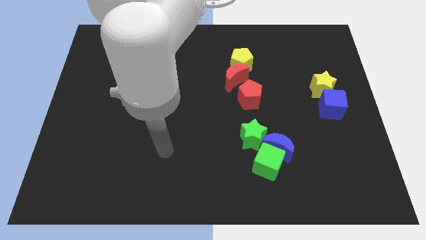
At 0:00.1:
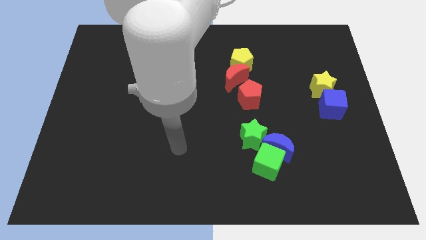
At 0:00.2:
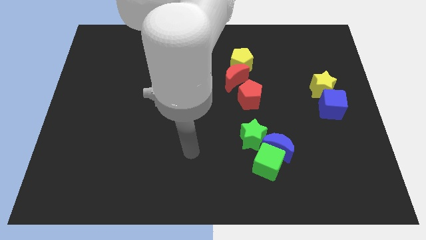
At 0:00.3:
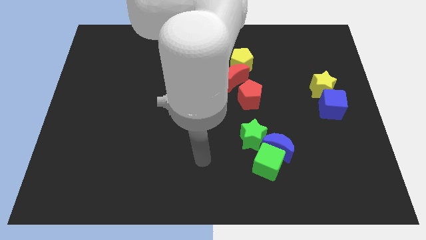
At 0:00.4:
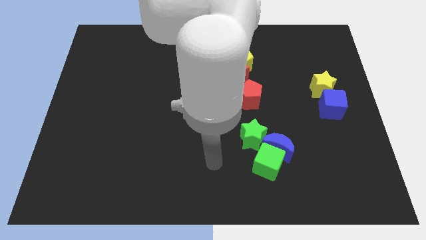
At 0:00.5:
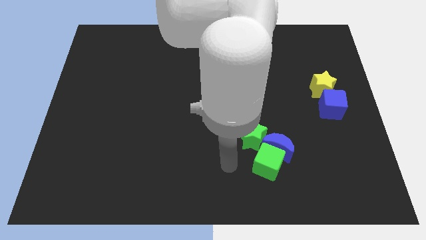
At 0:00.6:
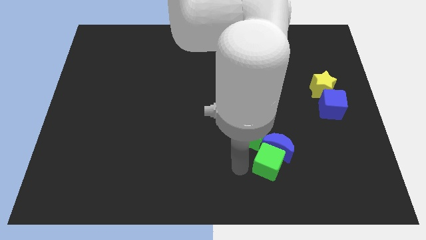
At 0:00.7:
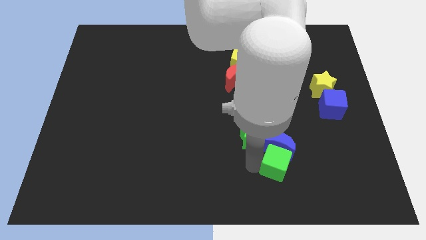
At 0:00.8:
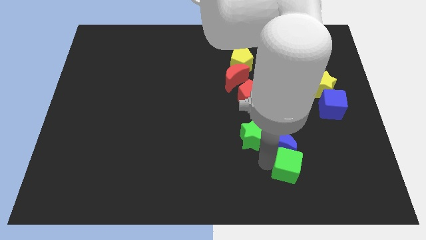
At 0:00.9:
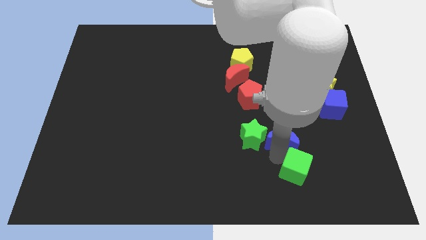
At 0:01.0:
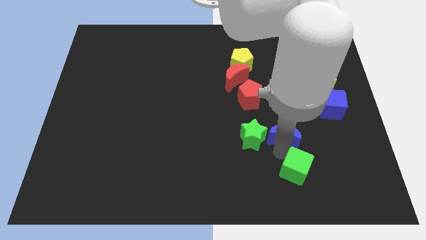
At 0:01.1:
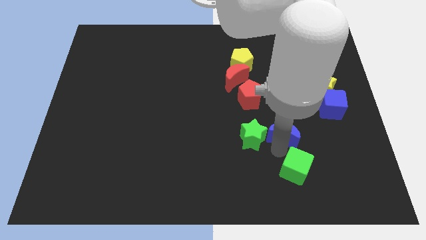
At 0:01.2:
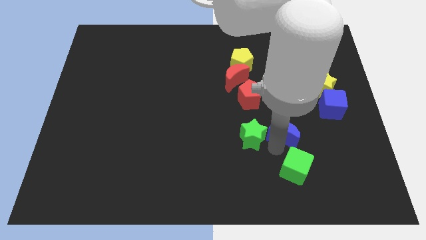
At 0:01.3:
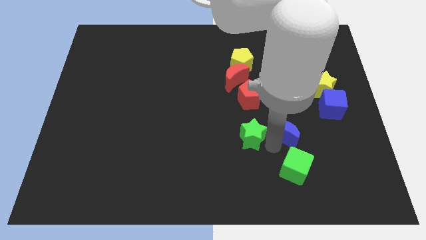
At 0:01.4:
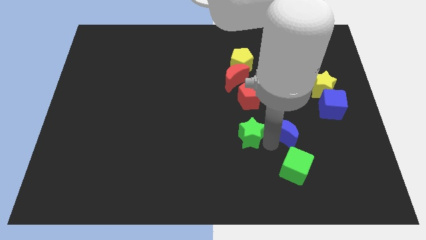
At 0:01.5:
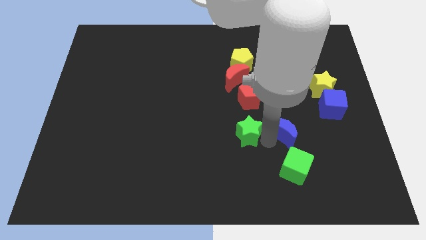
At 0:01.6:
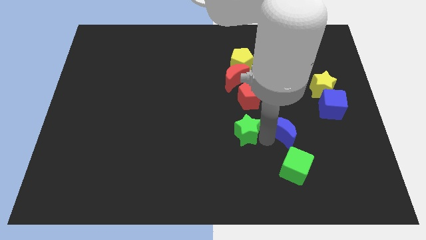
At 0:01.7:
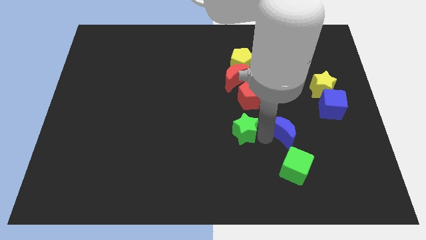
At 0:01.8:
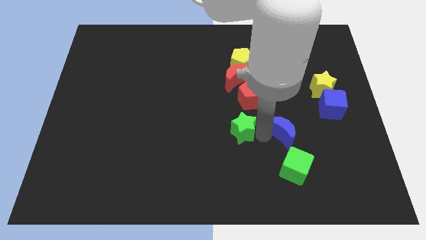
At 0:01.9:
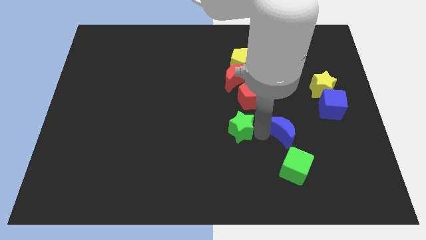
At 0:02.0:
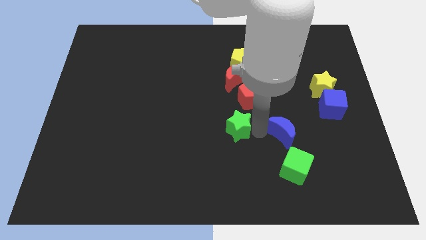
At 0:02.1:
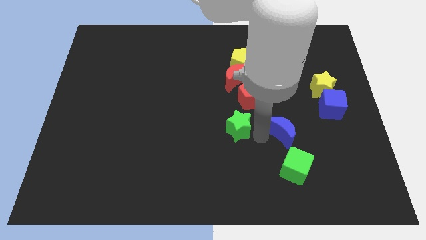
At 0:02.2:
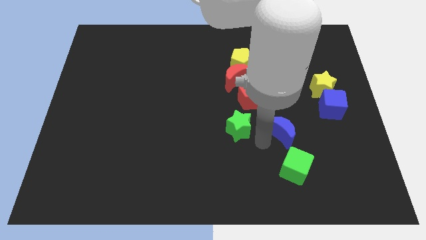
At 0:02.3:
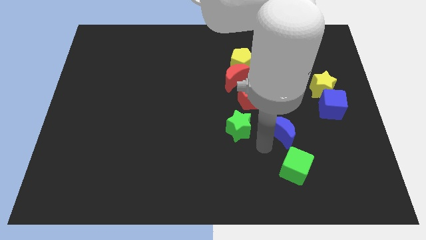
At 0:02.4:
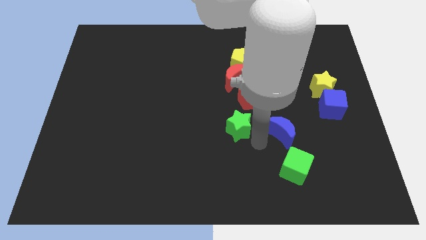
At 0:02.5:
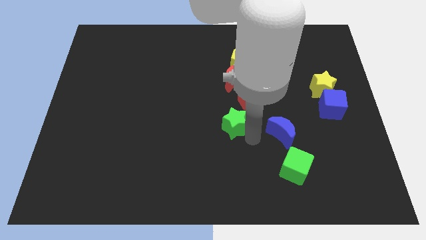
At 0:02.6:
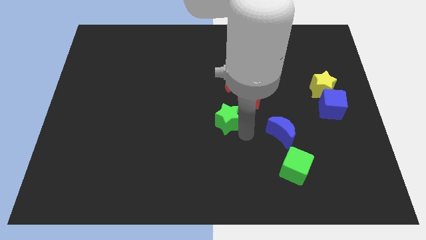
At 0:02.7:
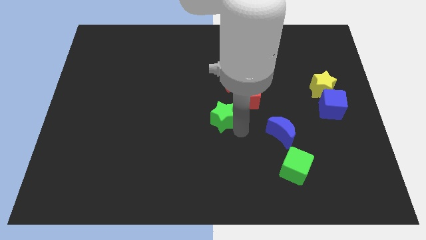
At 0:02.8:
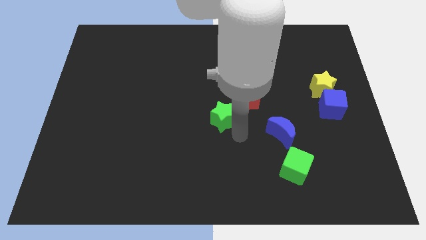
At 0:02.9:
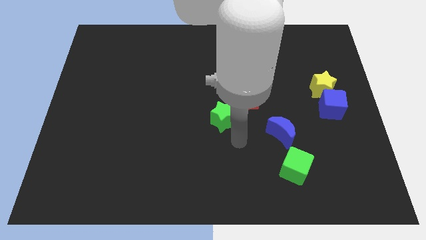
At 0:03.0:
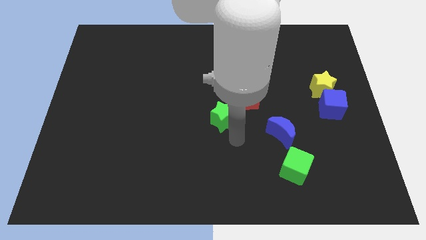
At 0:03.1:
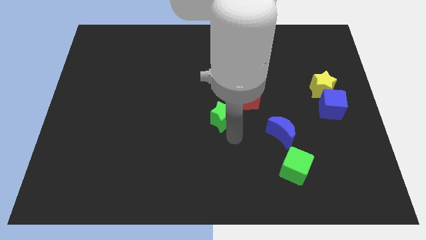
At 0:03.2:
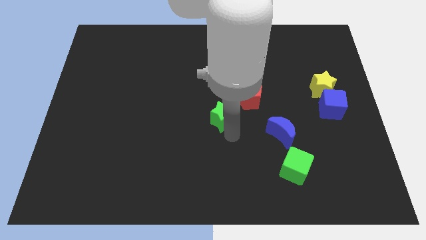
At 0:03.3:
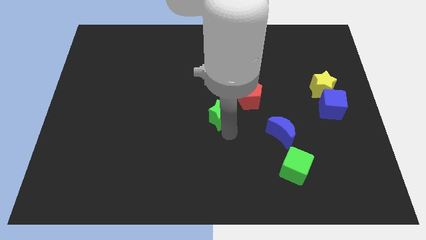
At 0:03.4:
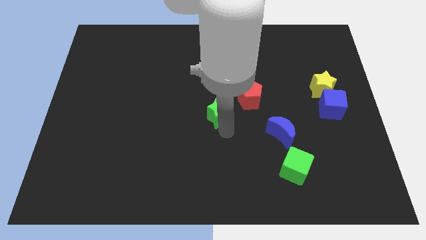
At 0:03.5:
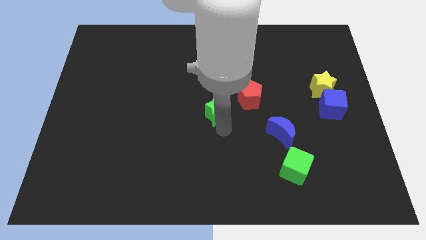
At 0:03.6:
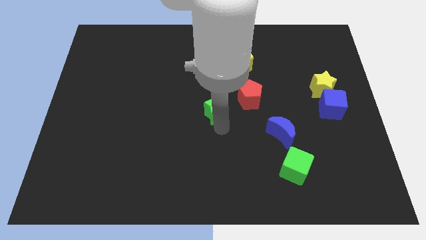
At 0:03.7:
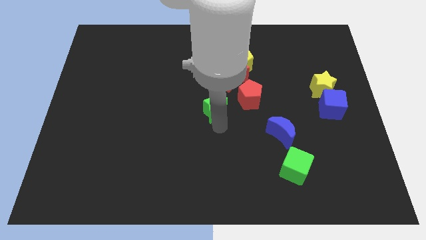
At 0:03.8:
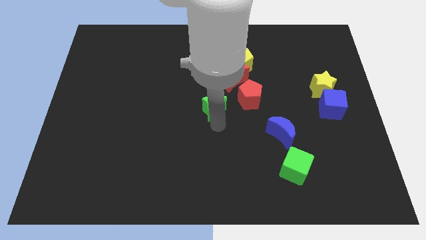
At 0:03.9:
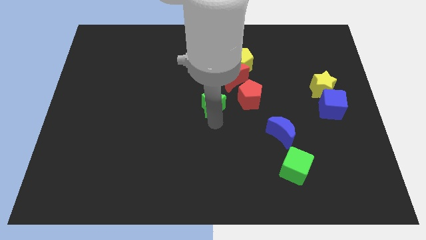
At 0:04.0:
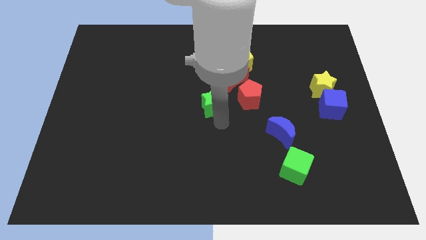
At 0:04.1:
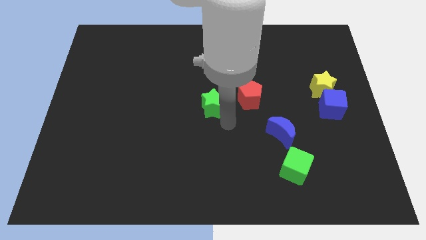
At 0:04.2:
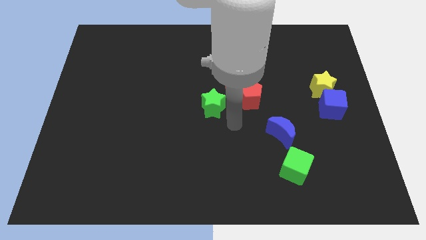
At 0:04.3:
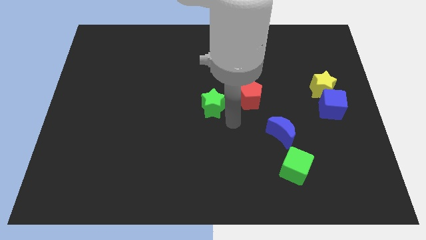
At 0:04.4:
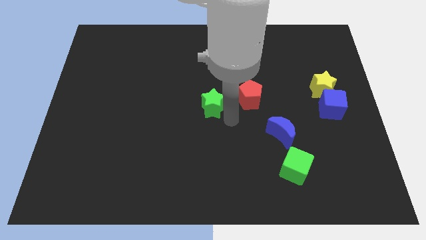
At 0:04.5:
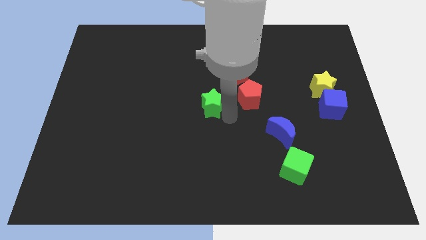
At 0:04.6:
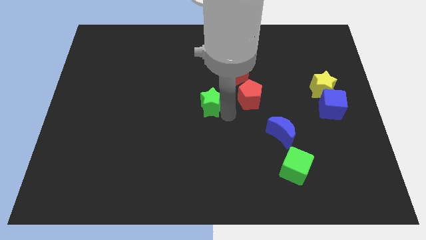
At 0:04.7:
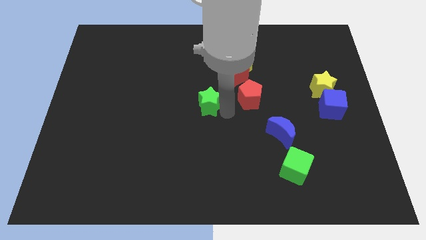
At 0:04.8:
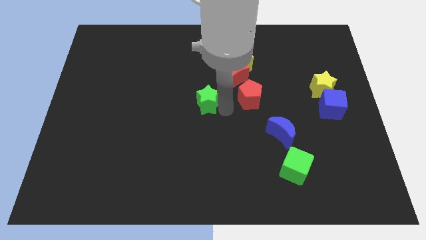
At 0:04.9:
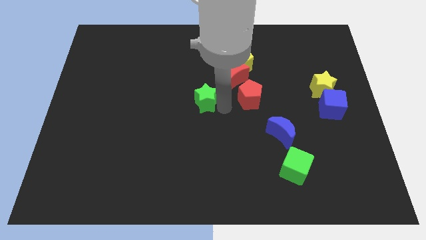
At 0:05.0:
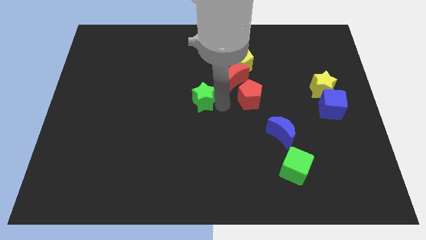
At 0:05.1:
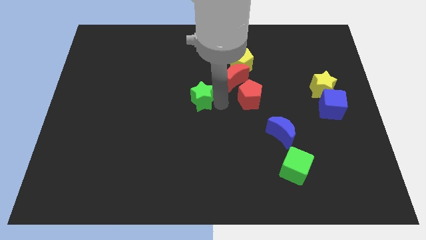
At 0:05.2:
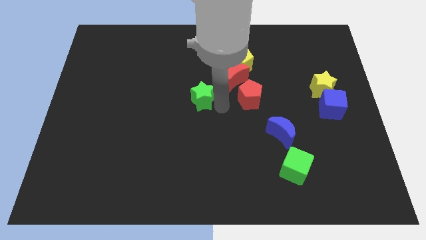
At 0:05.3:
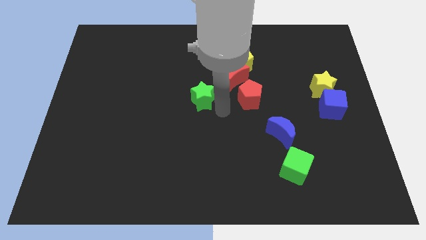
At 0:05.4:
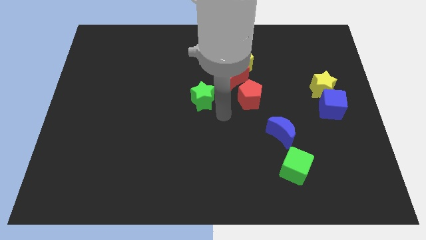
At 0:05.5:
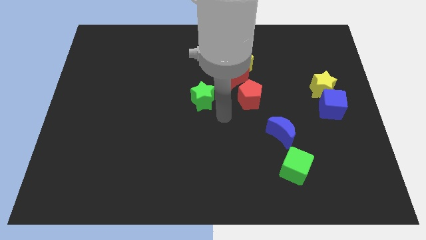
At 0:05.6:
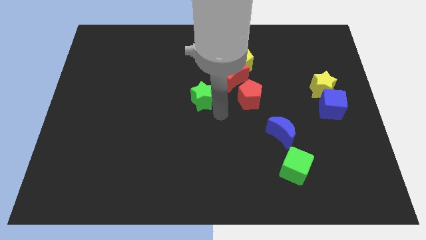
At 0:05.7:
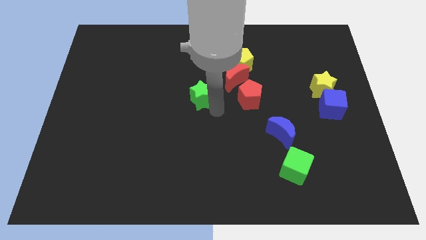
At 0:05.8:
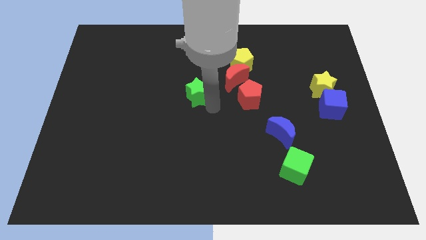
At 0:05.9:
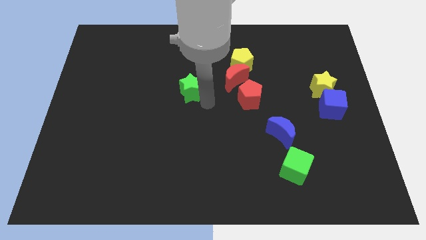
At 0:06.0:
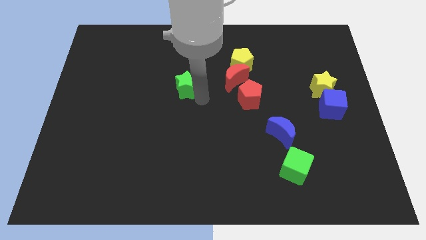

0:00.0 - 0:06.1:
move the green star upwards and to the left

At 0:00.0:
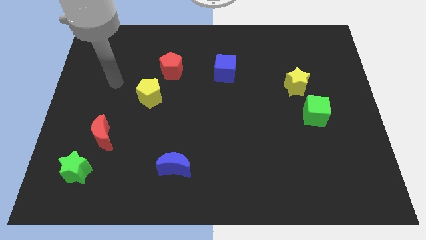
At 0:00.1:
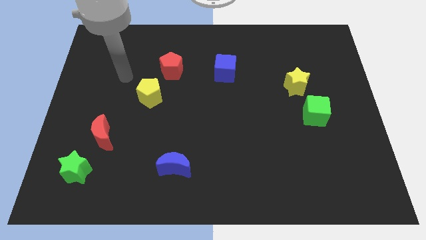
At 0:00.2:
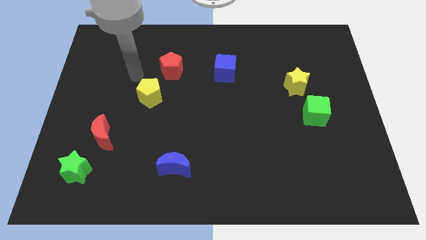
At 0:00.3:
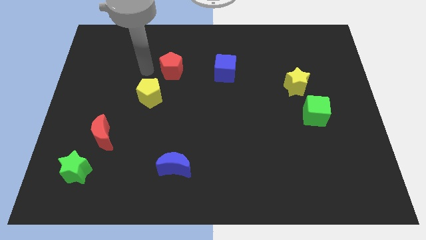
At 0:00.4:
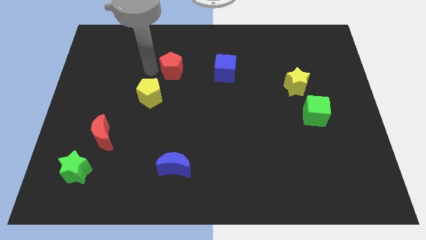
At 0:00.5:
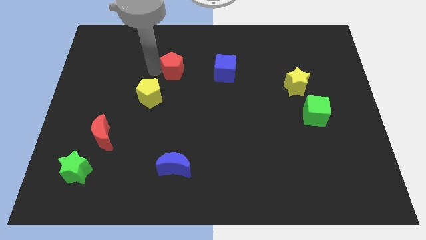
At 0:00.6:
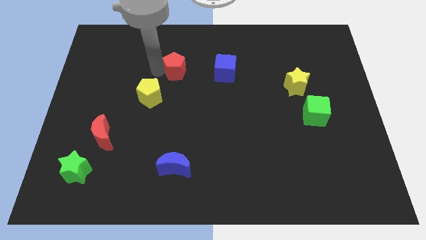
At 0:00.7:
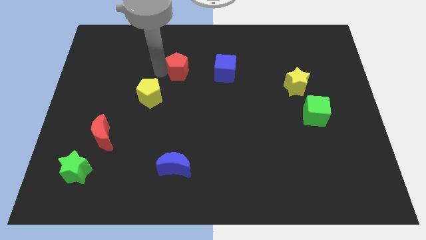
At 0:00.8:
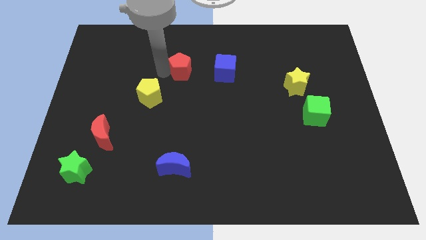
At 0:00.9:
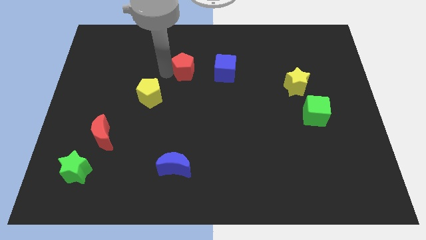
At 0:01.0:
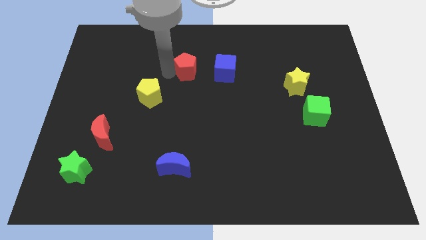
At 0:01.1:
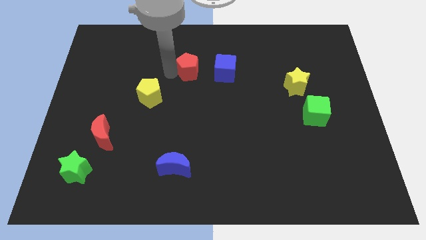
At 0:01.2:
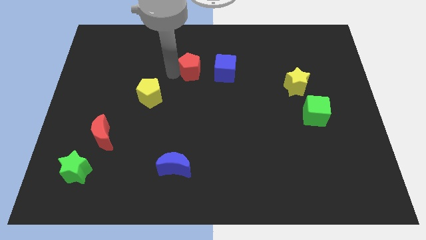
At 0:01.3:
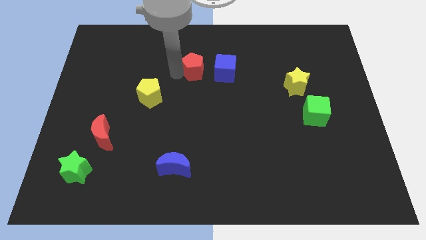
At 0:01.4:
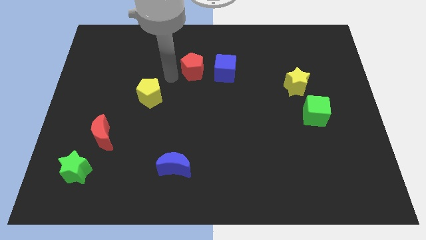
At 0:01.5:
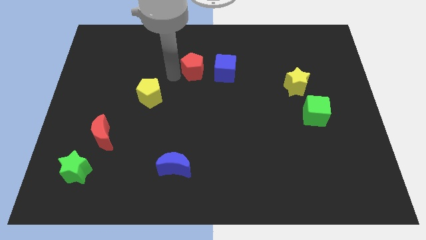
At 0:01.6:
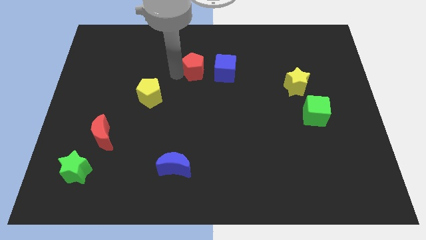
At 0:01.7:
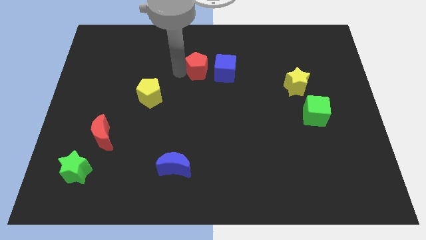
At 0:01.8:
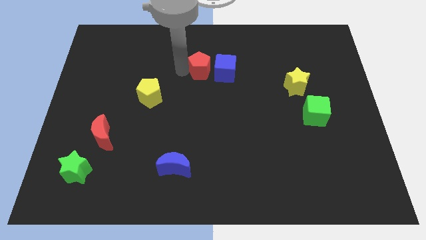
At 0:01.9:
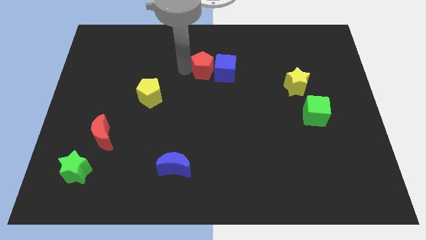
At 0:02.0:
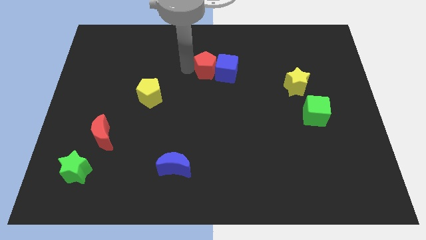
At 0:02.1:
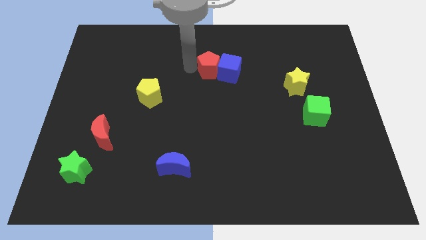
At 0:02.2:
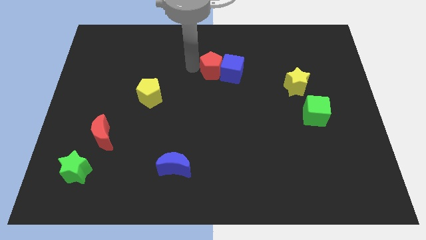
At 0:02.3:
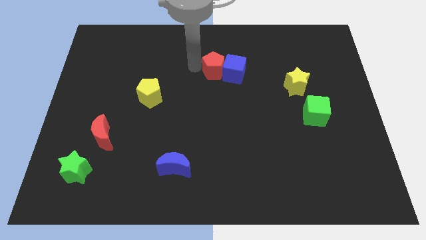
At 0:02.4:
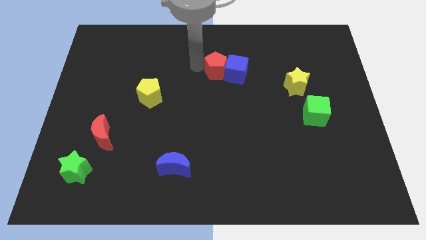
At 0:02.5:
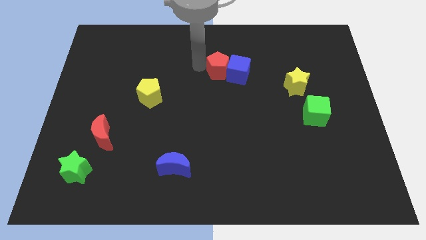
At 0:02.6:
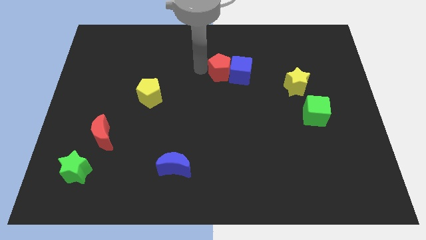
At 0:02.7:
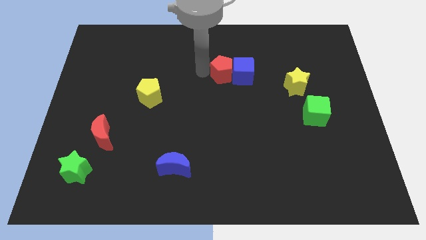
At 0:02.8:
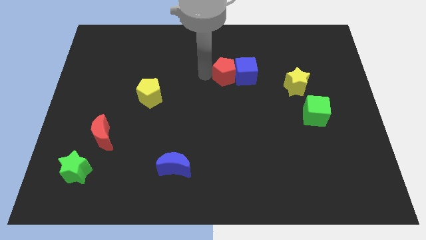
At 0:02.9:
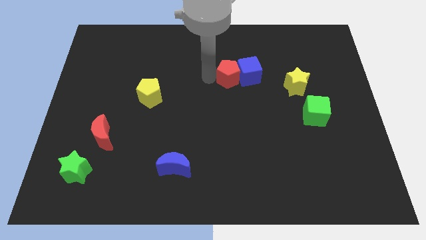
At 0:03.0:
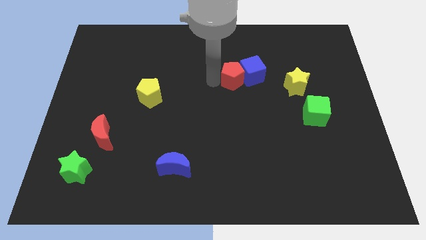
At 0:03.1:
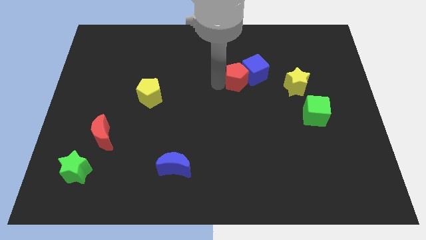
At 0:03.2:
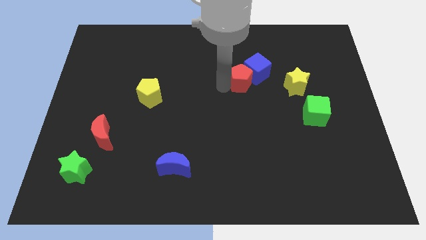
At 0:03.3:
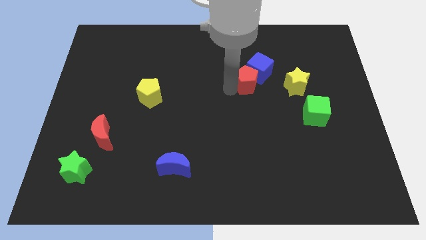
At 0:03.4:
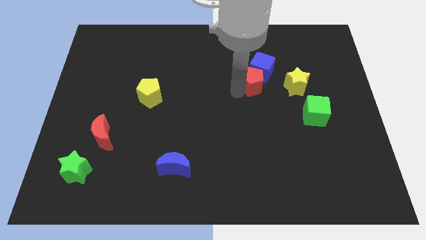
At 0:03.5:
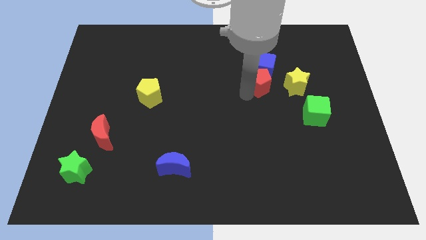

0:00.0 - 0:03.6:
push the red pentagon right
